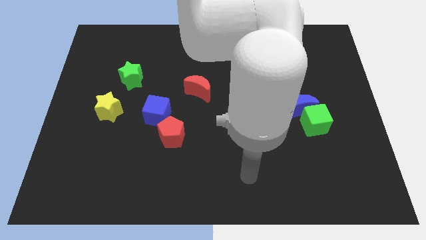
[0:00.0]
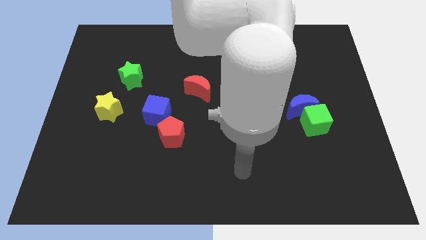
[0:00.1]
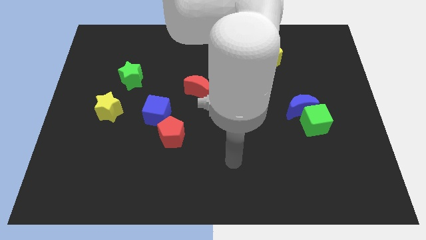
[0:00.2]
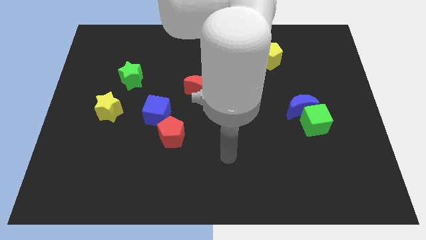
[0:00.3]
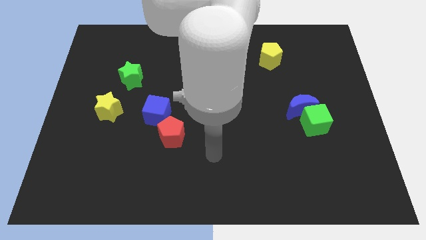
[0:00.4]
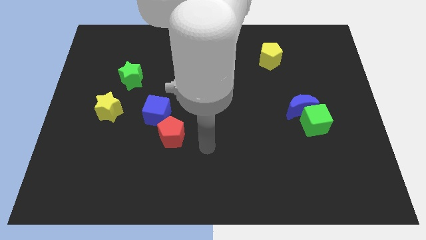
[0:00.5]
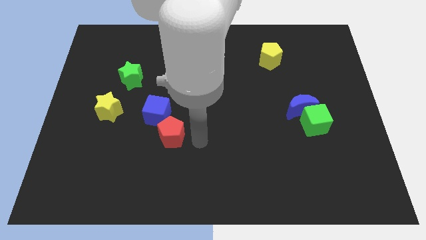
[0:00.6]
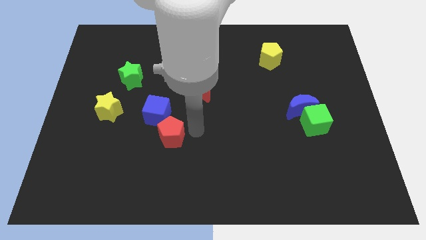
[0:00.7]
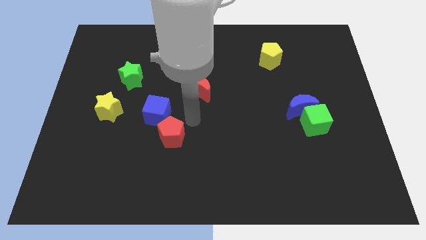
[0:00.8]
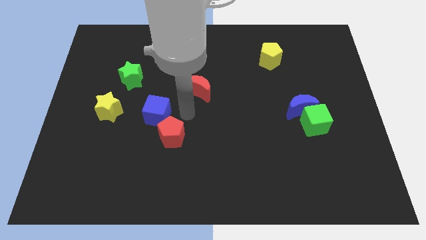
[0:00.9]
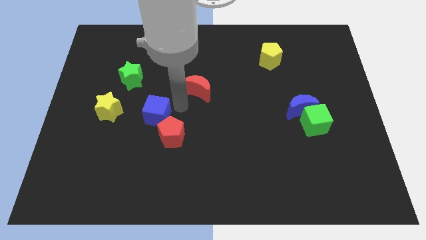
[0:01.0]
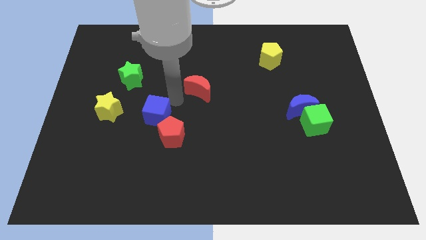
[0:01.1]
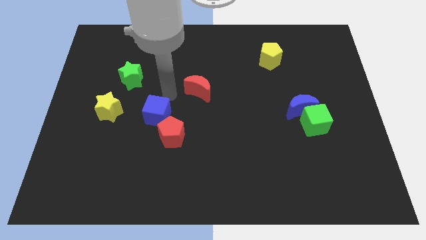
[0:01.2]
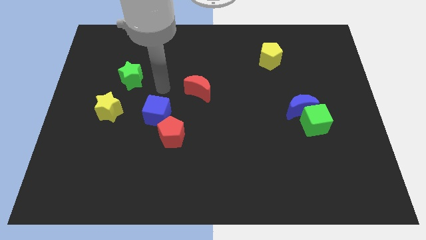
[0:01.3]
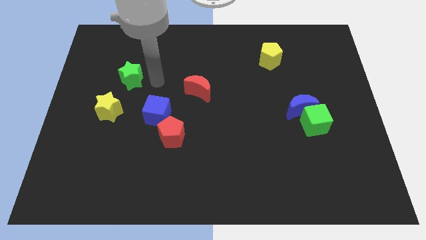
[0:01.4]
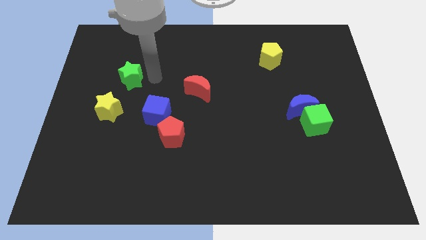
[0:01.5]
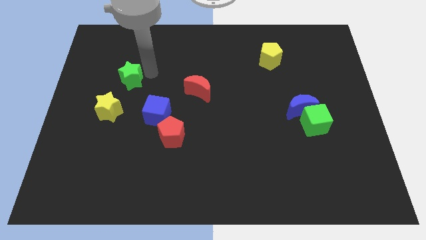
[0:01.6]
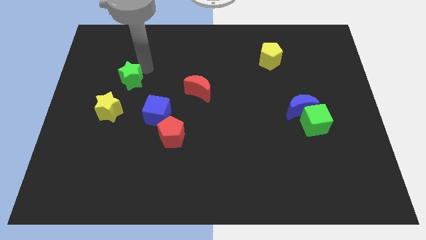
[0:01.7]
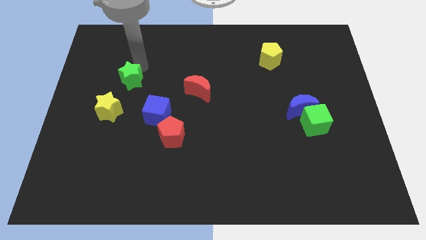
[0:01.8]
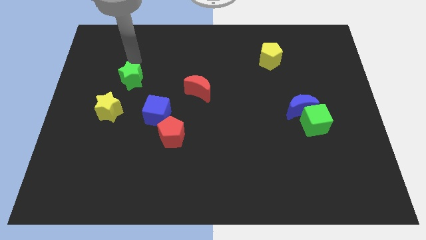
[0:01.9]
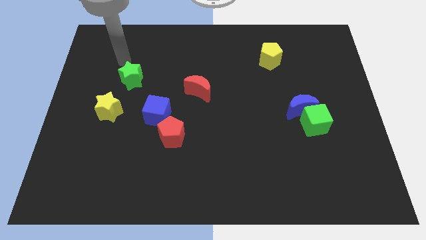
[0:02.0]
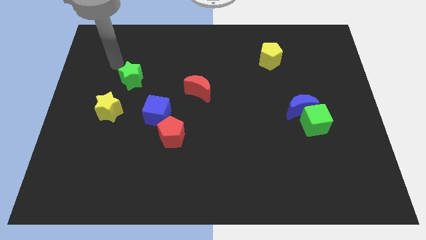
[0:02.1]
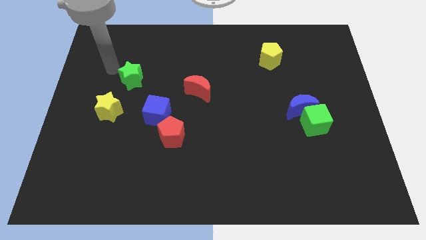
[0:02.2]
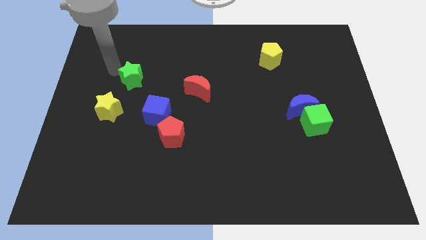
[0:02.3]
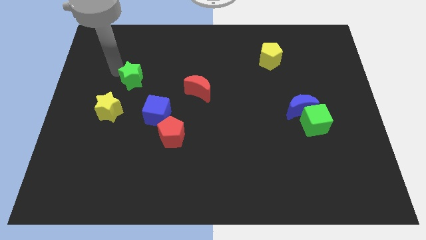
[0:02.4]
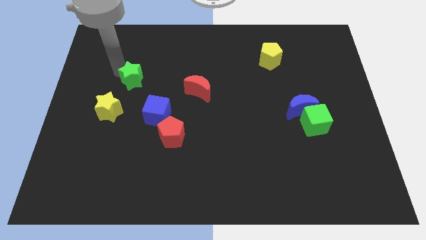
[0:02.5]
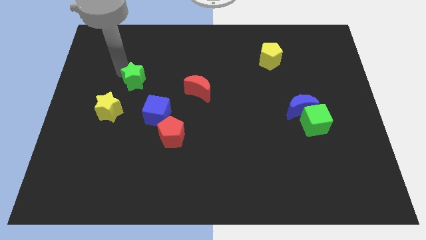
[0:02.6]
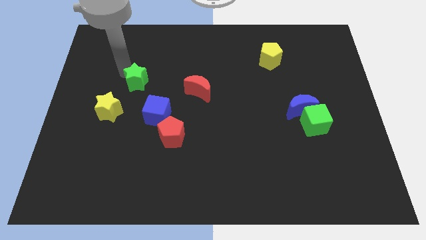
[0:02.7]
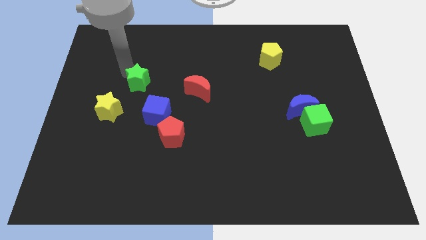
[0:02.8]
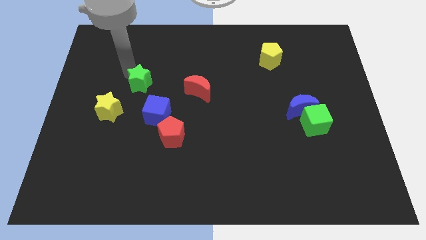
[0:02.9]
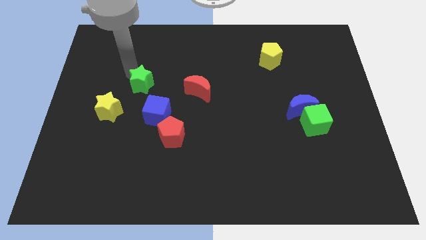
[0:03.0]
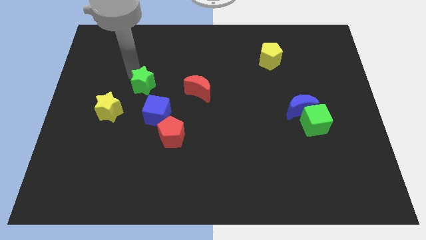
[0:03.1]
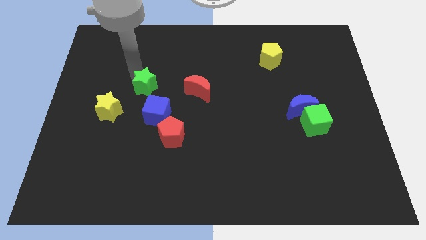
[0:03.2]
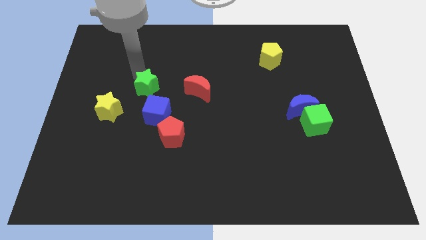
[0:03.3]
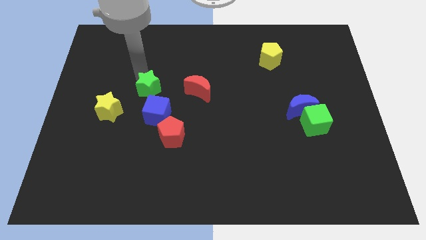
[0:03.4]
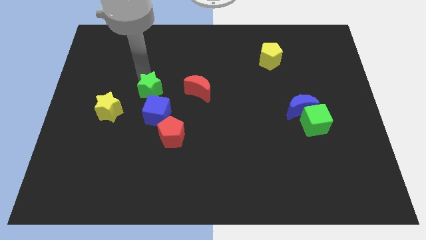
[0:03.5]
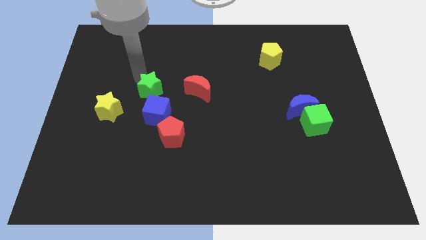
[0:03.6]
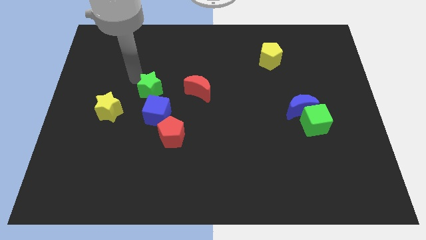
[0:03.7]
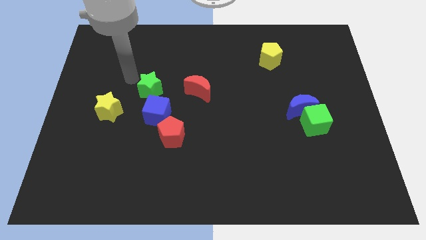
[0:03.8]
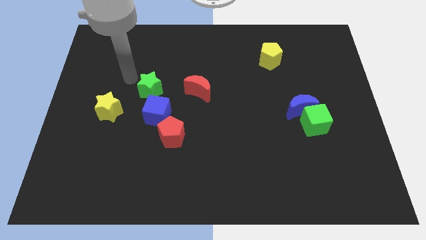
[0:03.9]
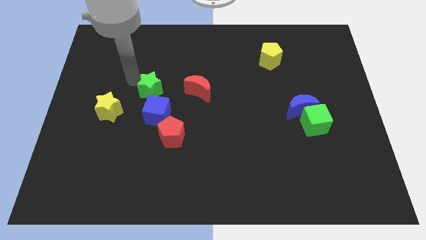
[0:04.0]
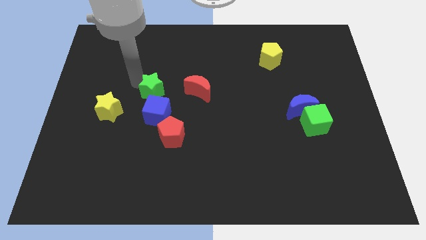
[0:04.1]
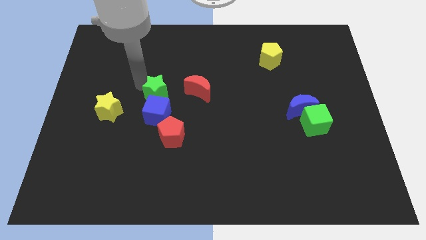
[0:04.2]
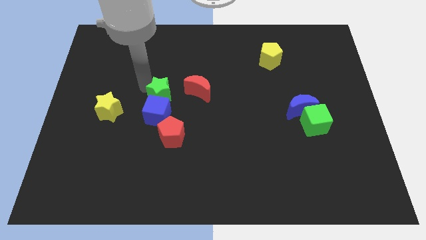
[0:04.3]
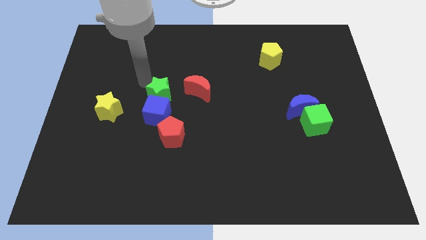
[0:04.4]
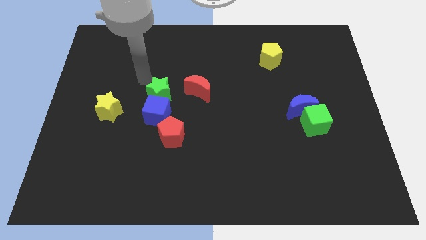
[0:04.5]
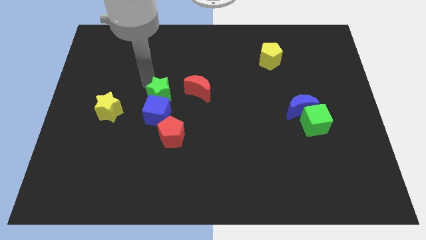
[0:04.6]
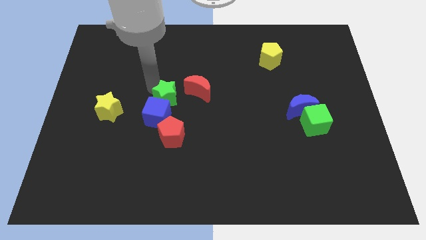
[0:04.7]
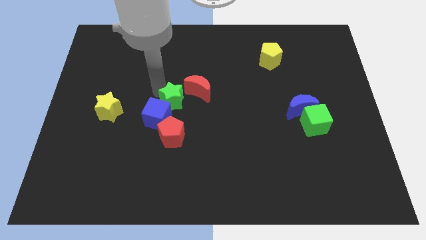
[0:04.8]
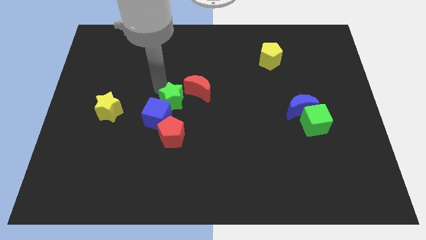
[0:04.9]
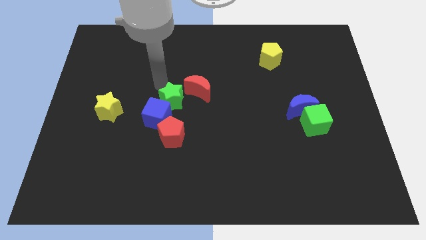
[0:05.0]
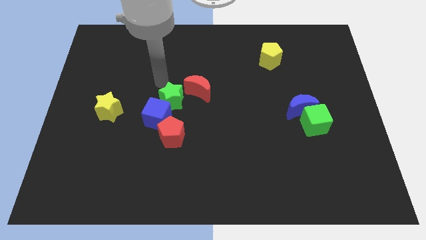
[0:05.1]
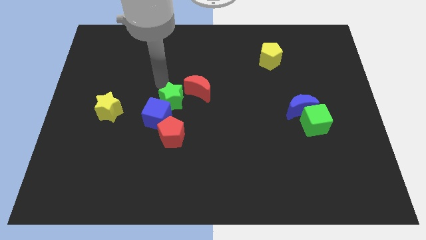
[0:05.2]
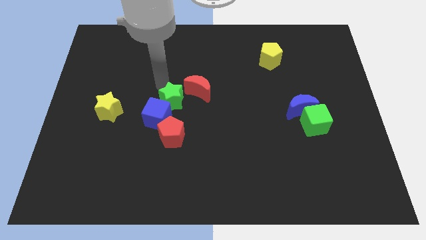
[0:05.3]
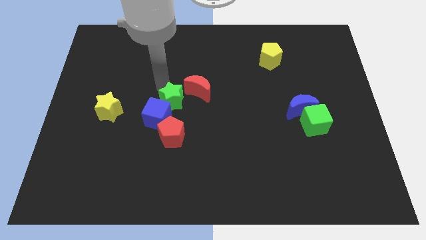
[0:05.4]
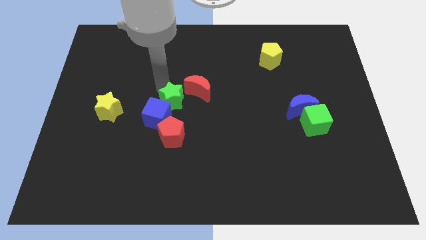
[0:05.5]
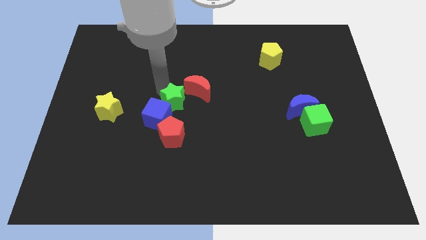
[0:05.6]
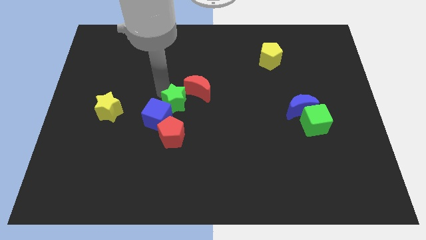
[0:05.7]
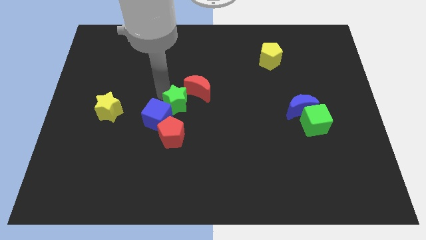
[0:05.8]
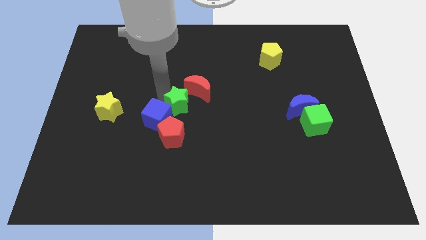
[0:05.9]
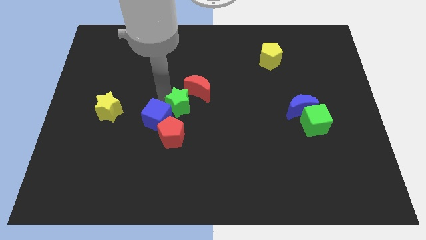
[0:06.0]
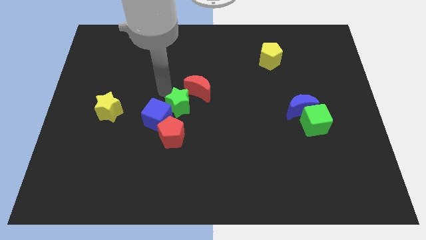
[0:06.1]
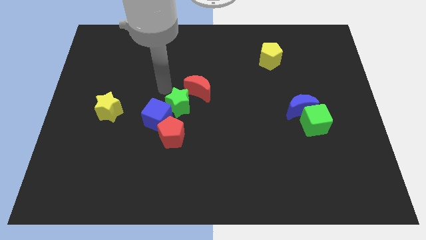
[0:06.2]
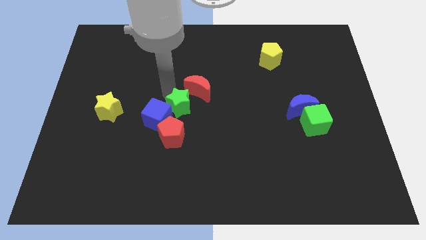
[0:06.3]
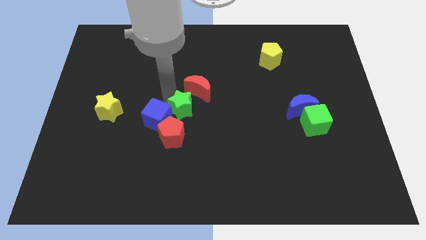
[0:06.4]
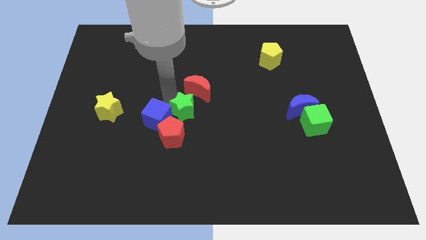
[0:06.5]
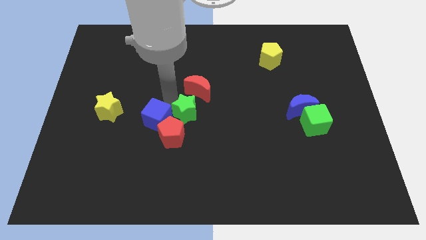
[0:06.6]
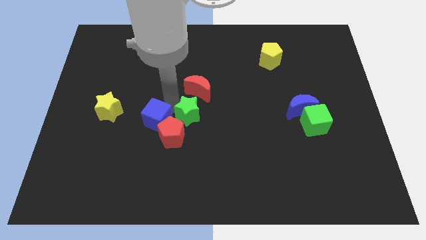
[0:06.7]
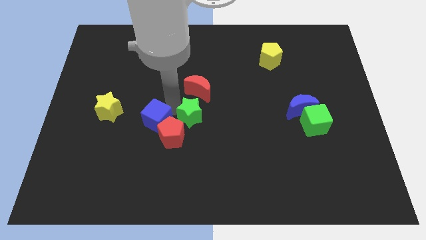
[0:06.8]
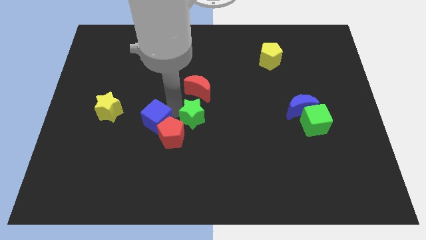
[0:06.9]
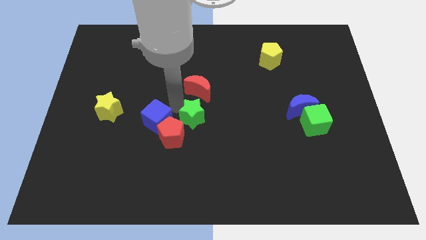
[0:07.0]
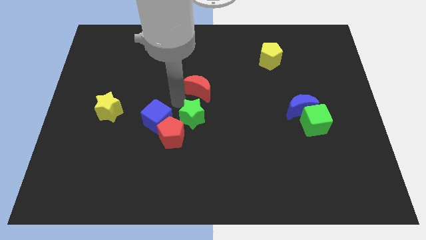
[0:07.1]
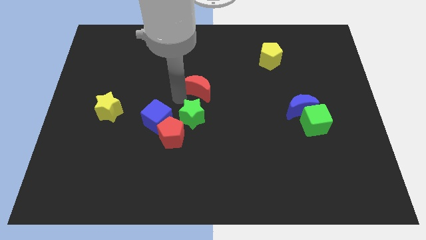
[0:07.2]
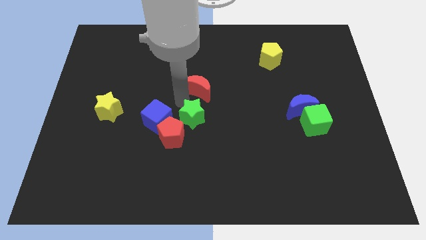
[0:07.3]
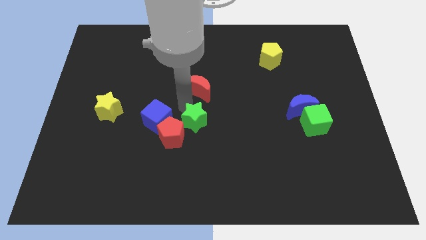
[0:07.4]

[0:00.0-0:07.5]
move the green star down and right

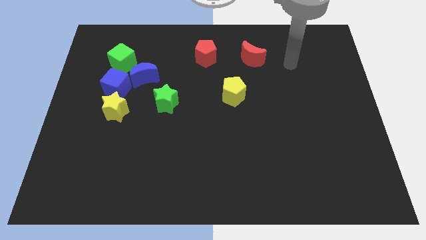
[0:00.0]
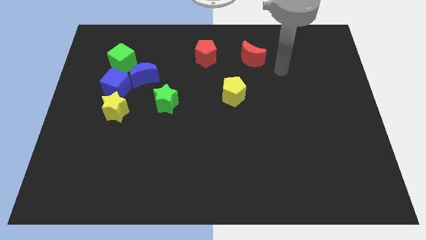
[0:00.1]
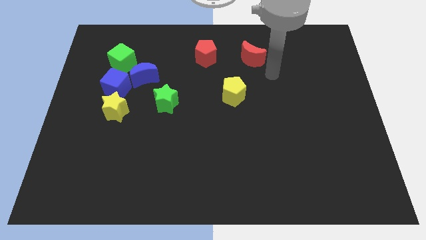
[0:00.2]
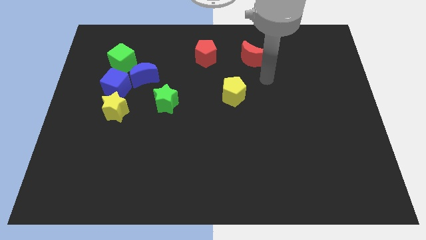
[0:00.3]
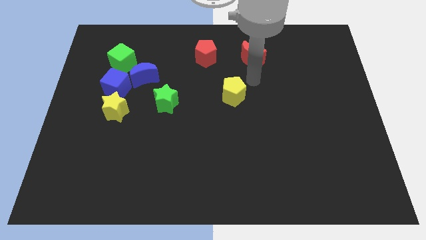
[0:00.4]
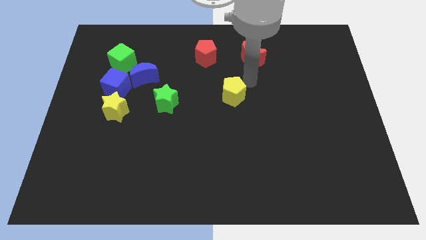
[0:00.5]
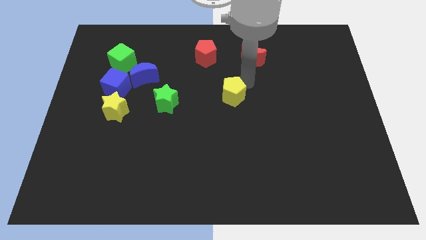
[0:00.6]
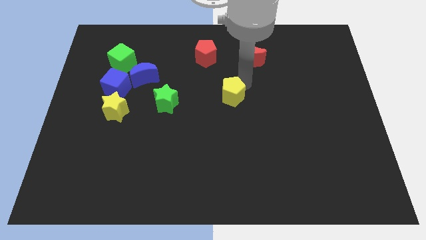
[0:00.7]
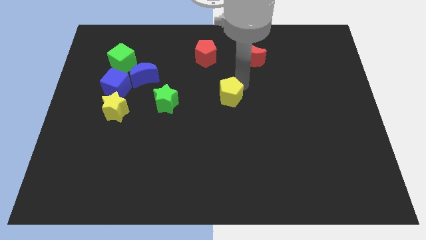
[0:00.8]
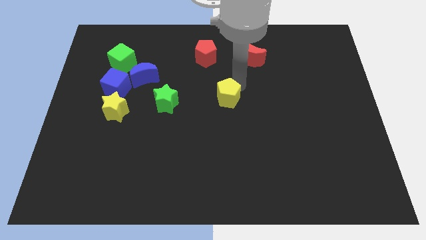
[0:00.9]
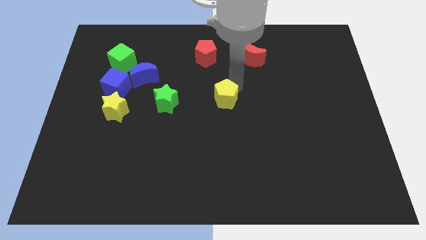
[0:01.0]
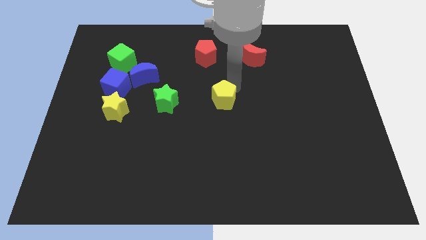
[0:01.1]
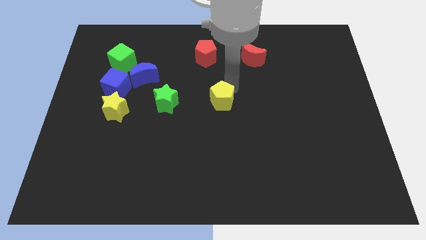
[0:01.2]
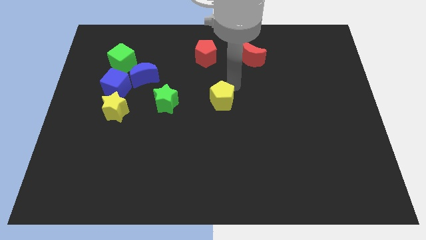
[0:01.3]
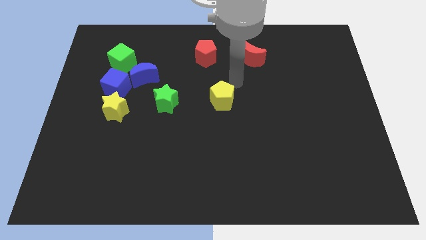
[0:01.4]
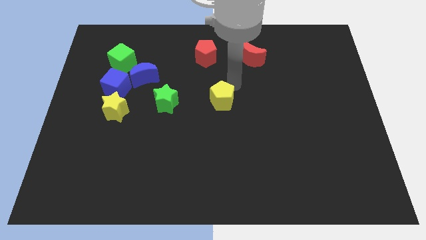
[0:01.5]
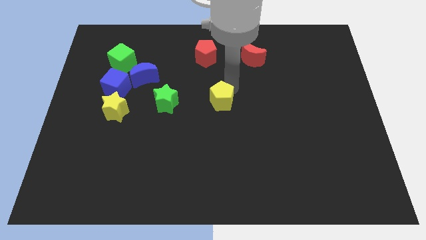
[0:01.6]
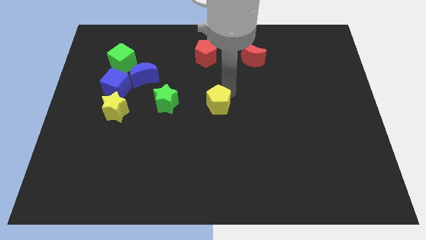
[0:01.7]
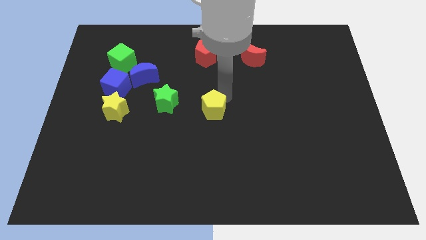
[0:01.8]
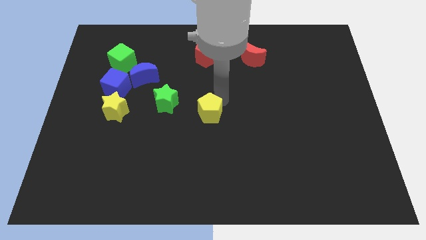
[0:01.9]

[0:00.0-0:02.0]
slightly slide the yellow pentagon down and to the left diagonally
